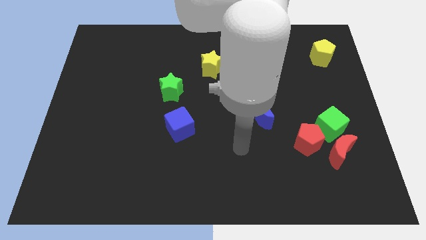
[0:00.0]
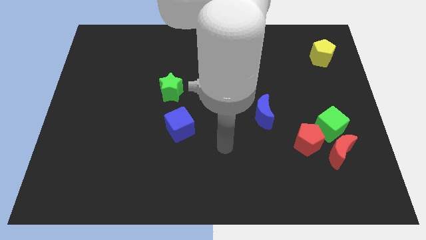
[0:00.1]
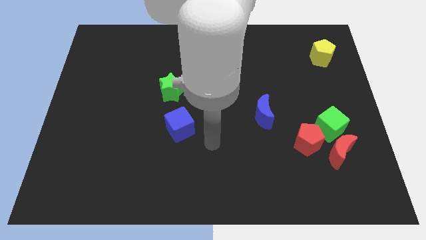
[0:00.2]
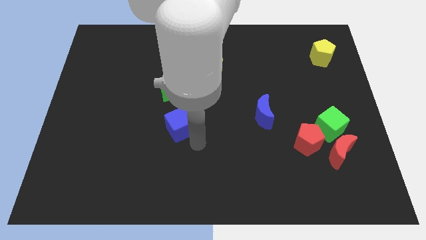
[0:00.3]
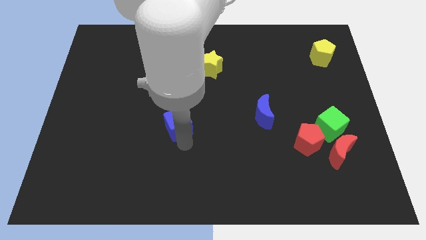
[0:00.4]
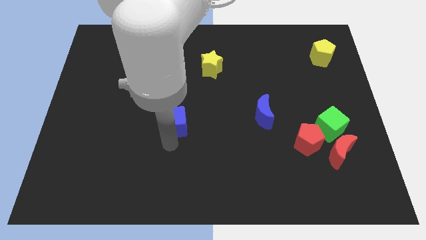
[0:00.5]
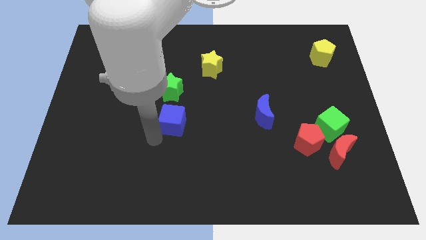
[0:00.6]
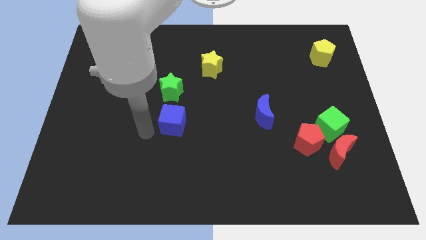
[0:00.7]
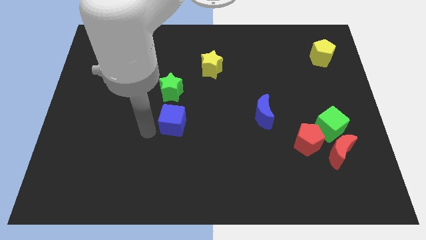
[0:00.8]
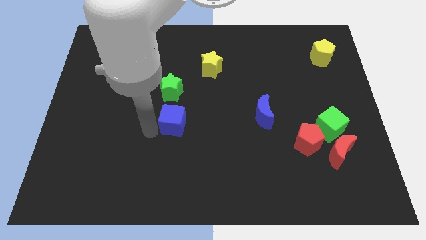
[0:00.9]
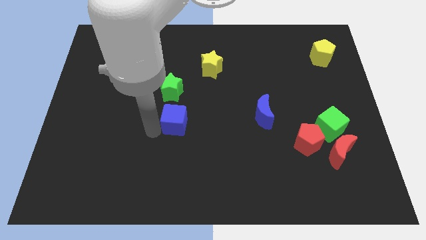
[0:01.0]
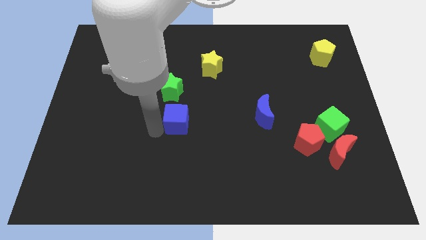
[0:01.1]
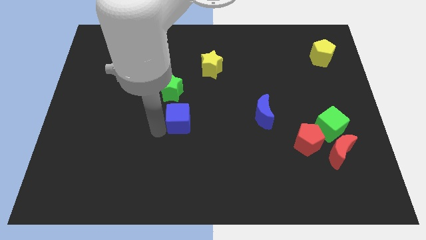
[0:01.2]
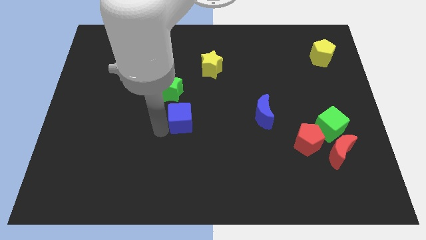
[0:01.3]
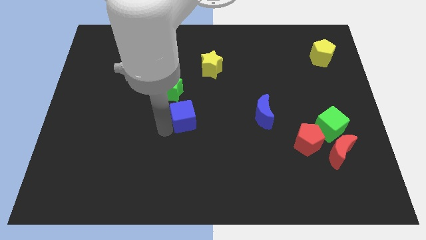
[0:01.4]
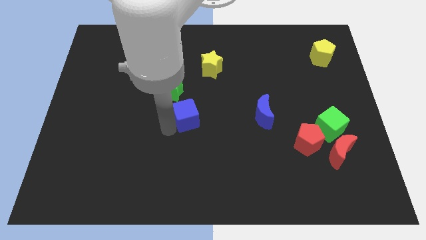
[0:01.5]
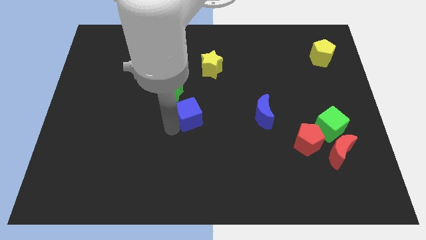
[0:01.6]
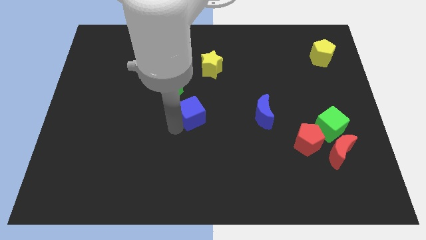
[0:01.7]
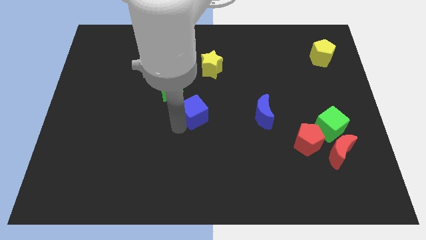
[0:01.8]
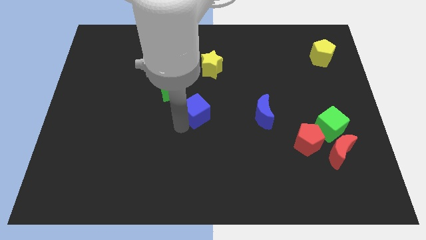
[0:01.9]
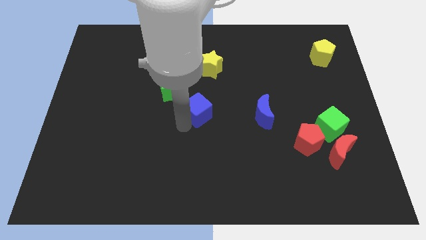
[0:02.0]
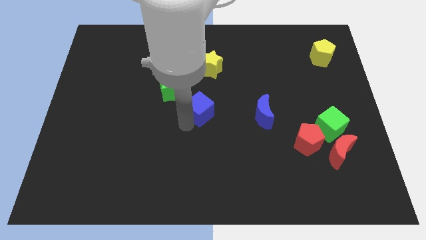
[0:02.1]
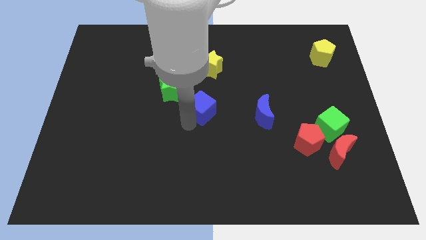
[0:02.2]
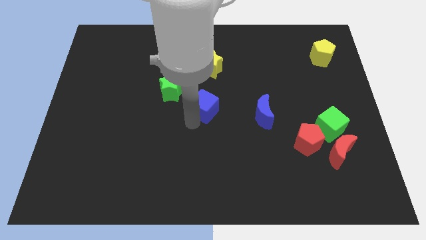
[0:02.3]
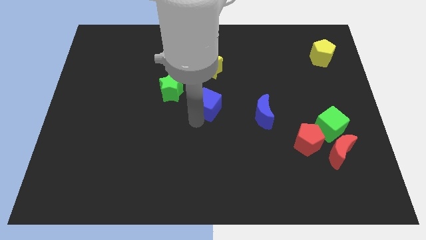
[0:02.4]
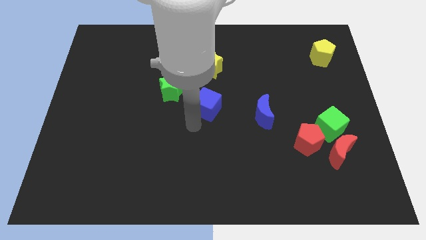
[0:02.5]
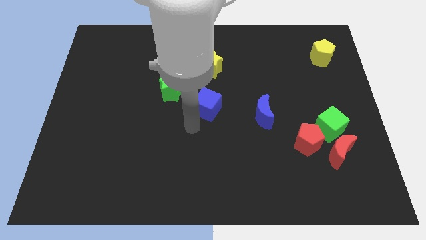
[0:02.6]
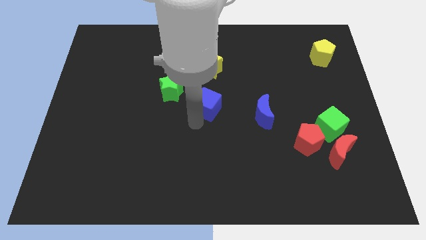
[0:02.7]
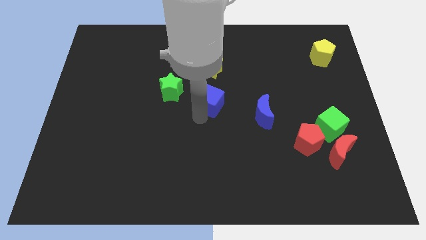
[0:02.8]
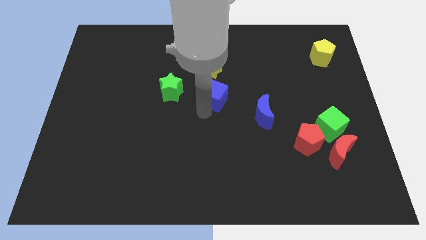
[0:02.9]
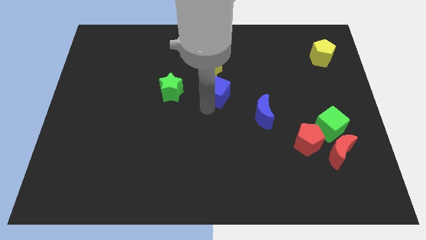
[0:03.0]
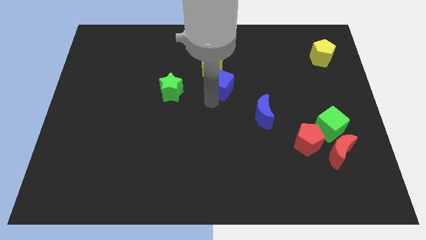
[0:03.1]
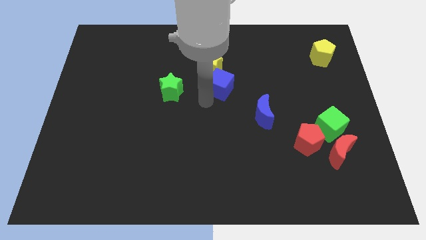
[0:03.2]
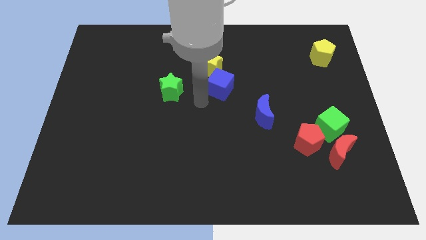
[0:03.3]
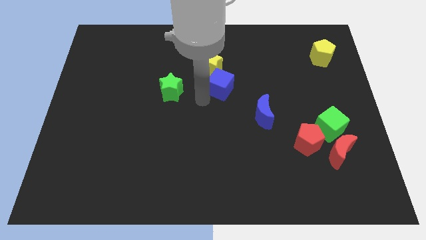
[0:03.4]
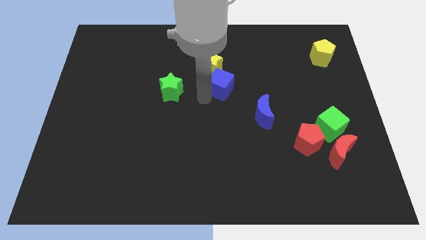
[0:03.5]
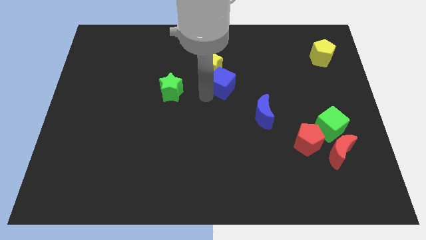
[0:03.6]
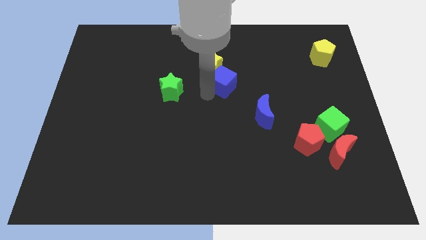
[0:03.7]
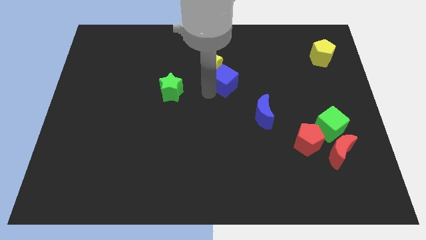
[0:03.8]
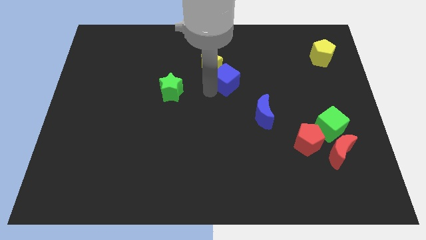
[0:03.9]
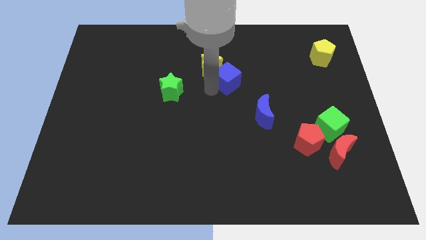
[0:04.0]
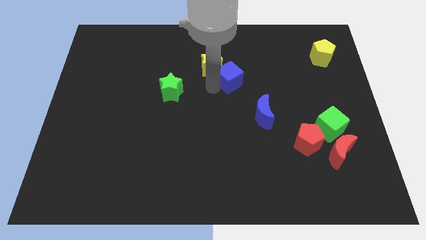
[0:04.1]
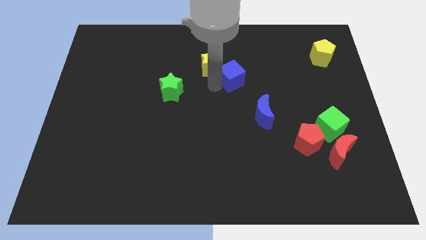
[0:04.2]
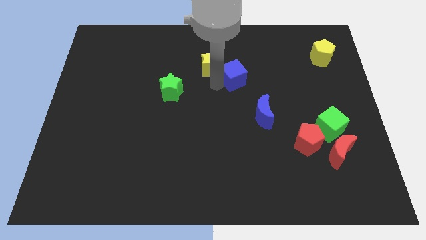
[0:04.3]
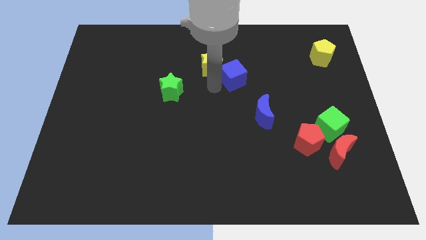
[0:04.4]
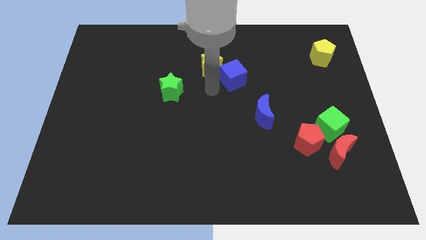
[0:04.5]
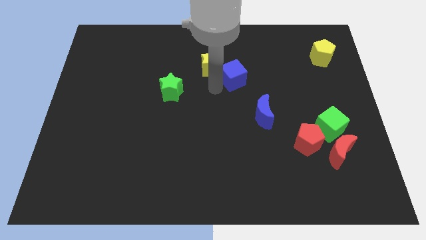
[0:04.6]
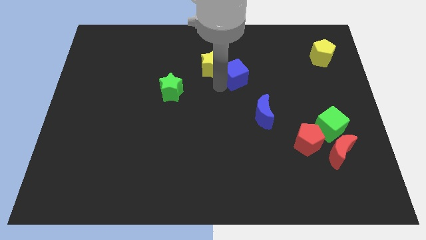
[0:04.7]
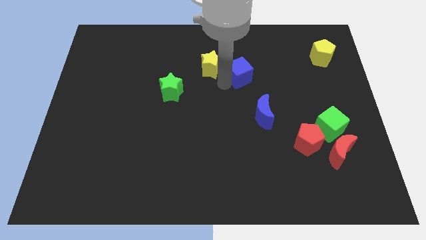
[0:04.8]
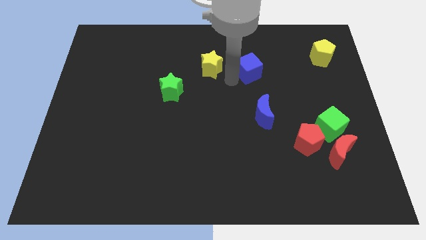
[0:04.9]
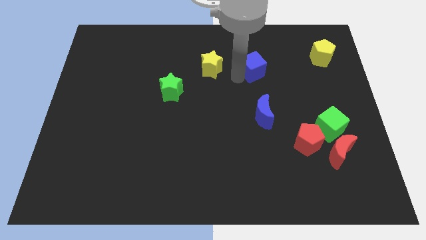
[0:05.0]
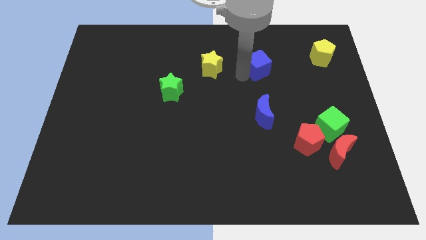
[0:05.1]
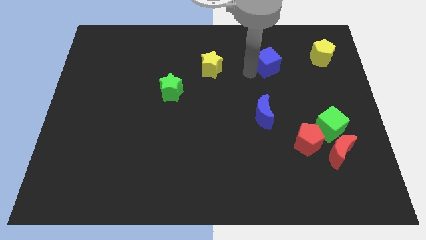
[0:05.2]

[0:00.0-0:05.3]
put the blue cube to the left of the yellow pentagon

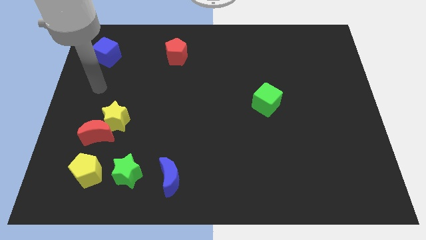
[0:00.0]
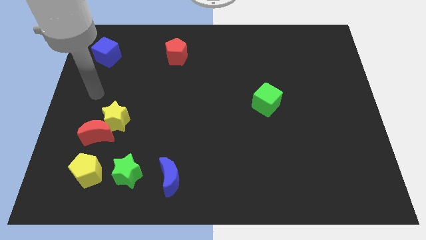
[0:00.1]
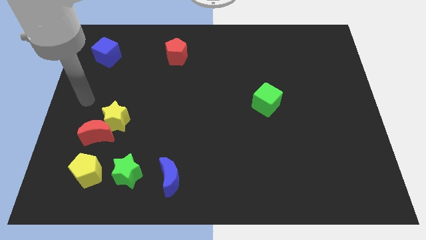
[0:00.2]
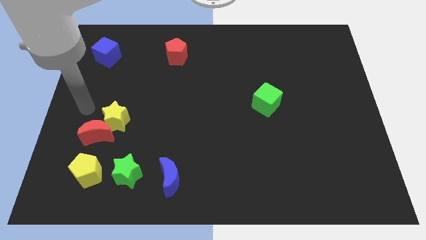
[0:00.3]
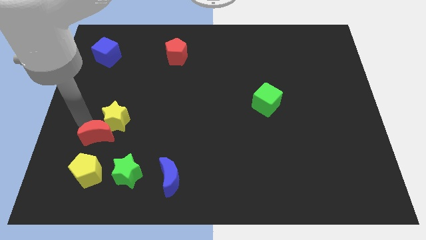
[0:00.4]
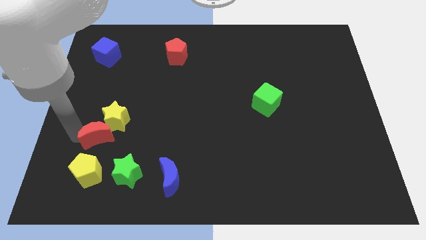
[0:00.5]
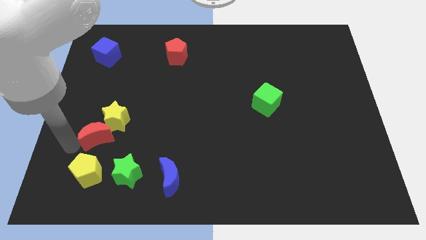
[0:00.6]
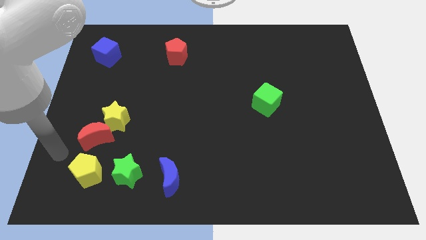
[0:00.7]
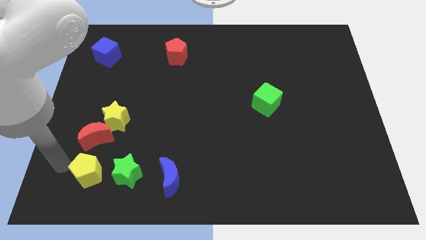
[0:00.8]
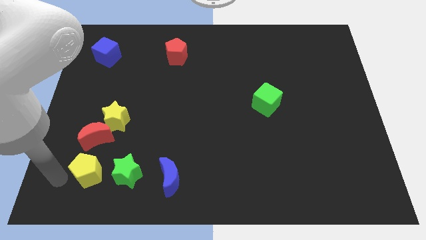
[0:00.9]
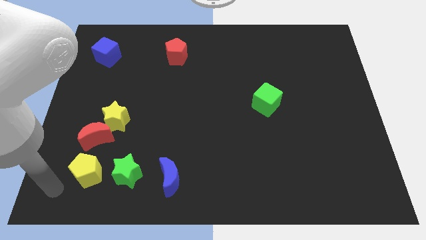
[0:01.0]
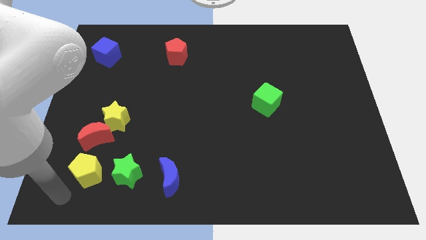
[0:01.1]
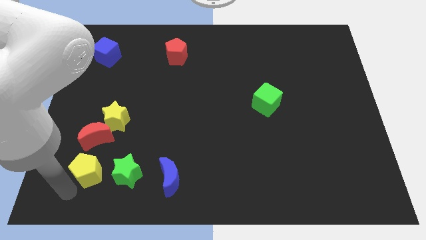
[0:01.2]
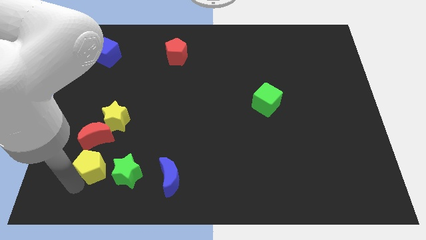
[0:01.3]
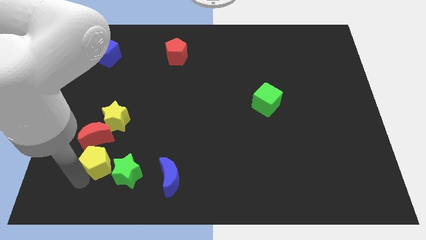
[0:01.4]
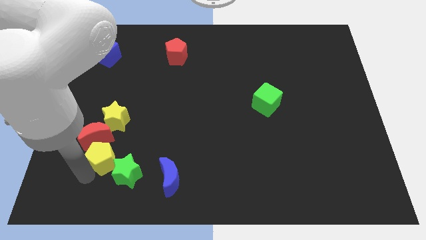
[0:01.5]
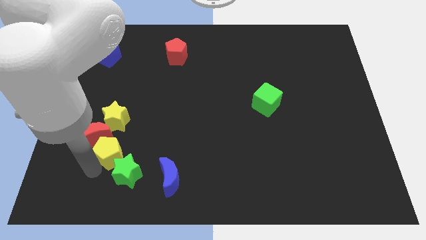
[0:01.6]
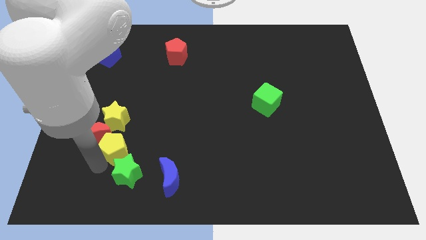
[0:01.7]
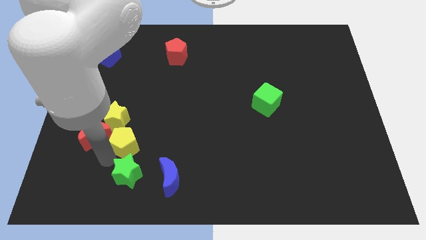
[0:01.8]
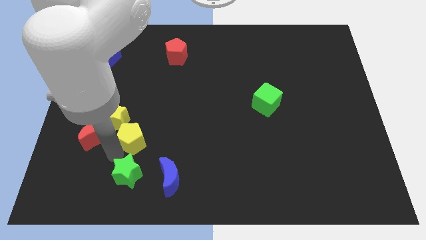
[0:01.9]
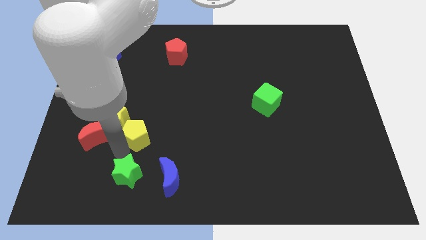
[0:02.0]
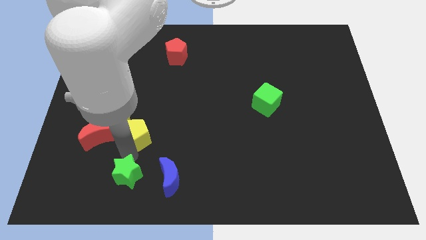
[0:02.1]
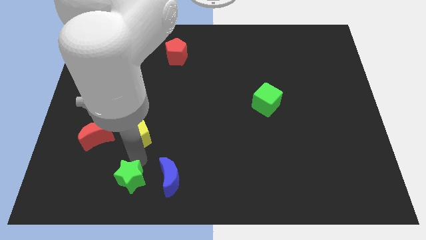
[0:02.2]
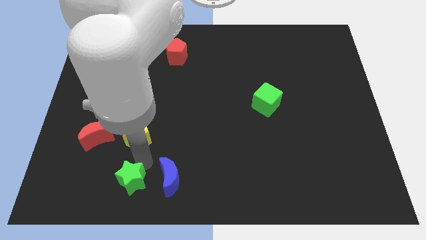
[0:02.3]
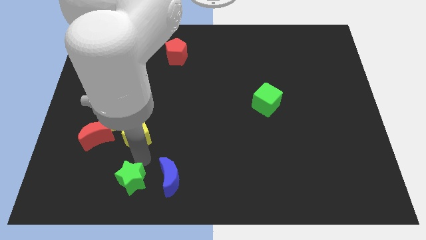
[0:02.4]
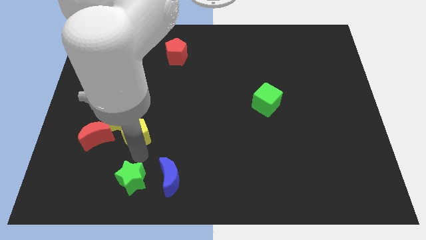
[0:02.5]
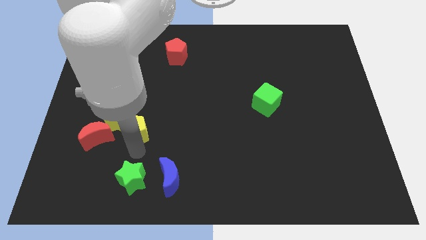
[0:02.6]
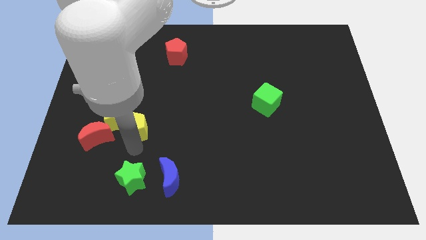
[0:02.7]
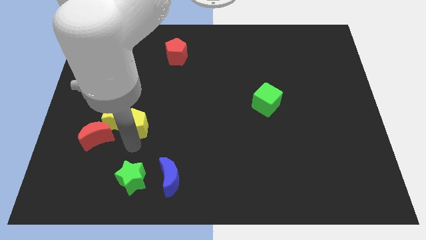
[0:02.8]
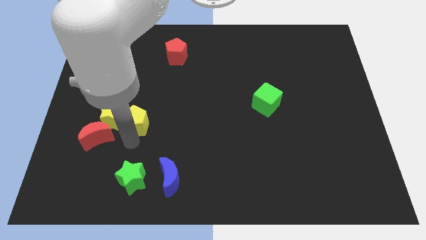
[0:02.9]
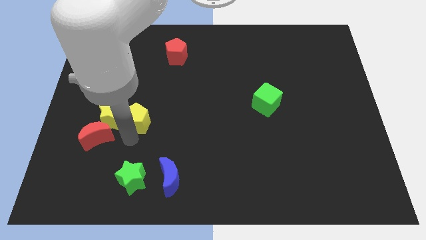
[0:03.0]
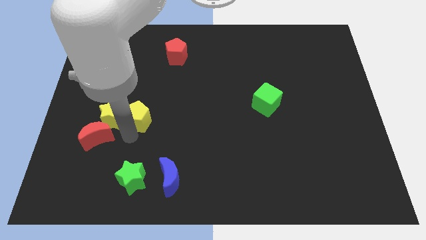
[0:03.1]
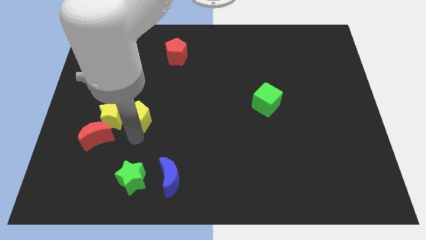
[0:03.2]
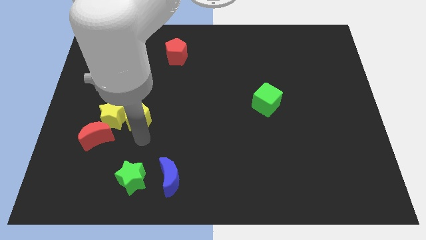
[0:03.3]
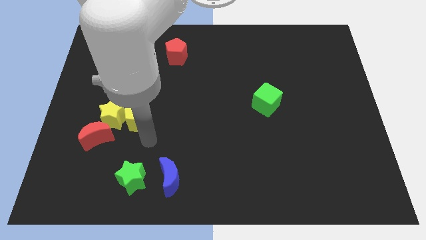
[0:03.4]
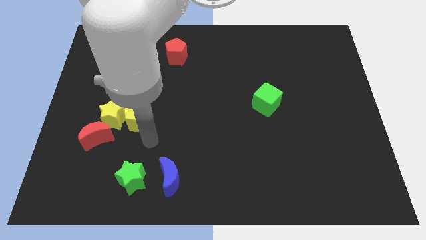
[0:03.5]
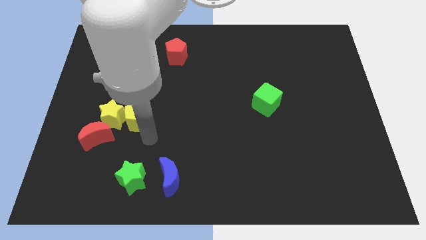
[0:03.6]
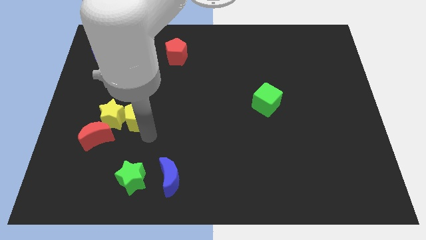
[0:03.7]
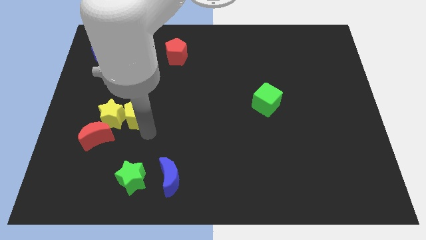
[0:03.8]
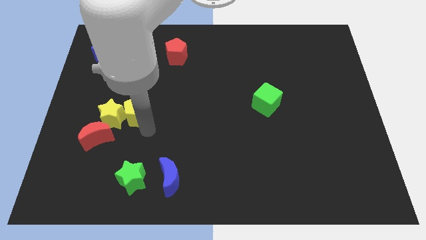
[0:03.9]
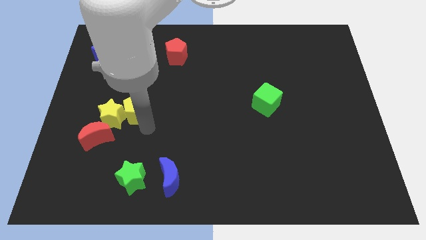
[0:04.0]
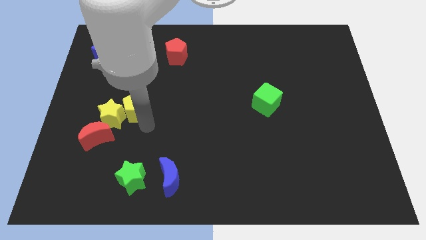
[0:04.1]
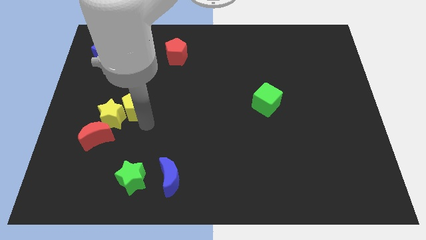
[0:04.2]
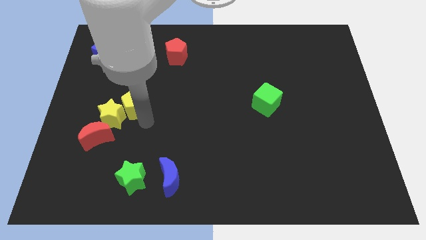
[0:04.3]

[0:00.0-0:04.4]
slide the yellow pentagon to the top of the yellow star
